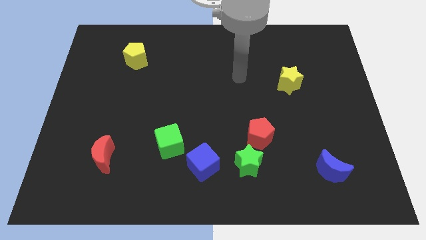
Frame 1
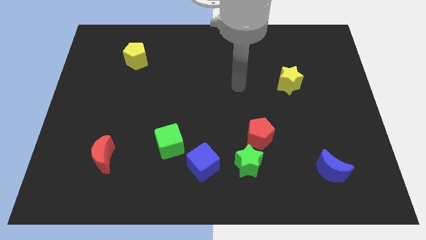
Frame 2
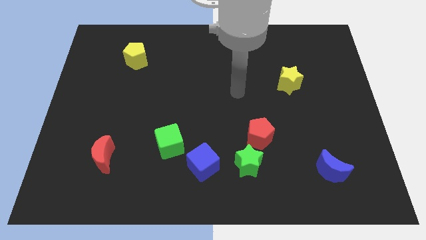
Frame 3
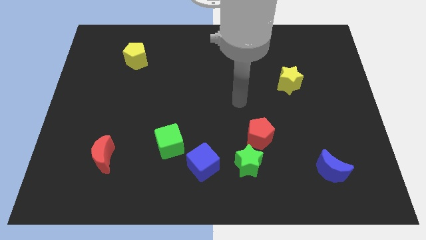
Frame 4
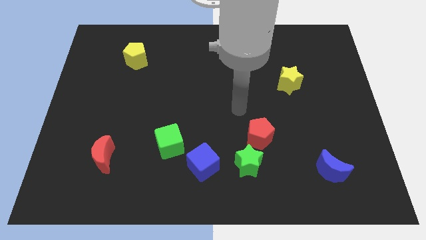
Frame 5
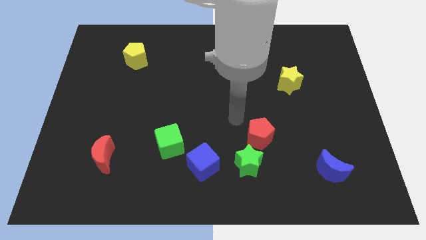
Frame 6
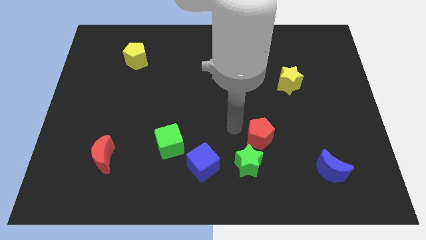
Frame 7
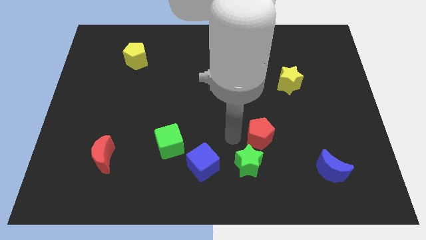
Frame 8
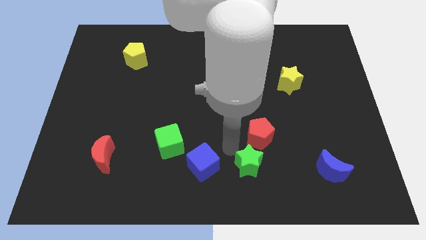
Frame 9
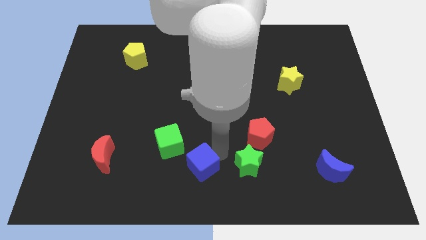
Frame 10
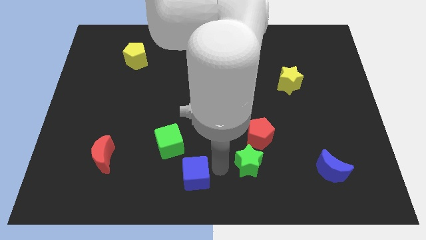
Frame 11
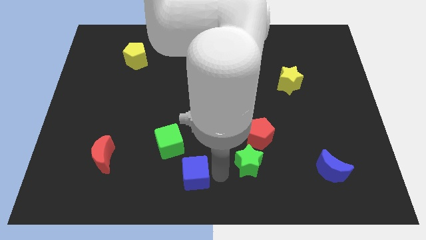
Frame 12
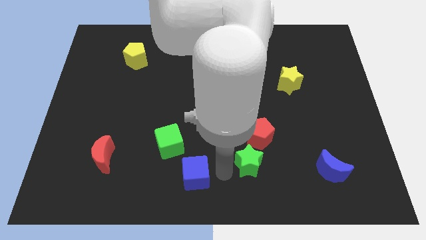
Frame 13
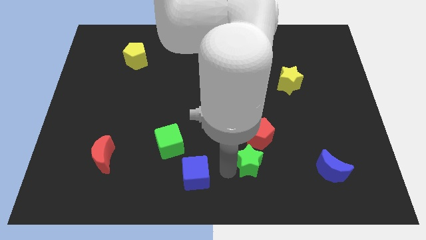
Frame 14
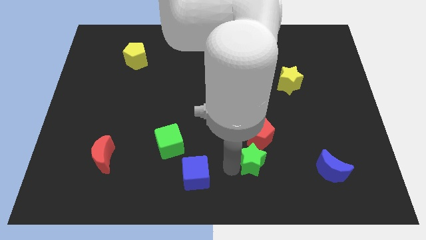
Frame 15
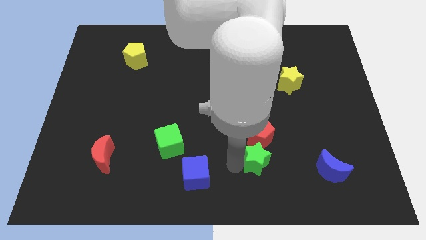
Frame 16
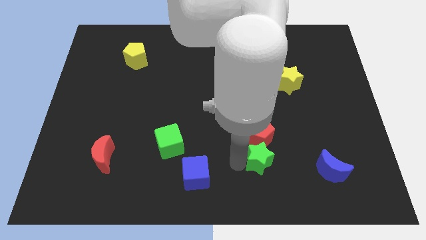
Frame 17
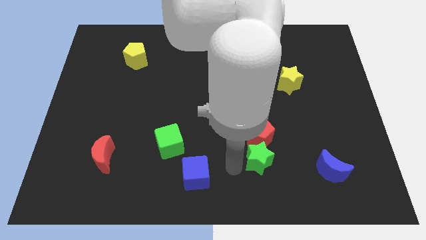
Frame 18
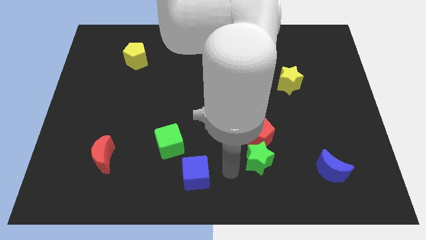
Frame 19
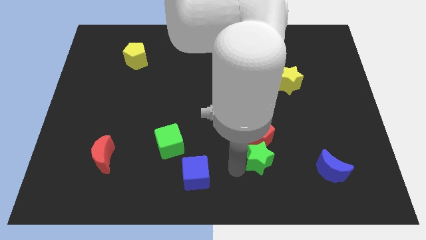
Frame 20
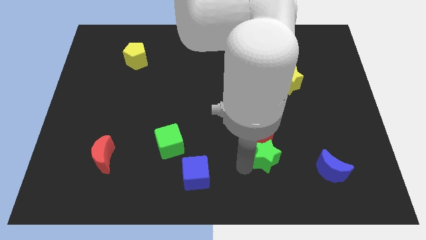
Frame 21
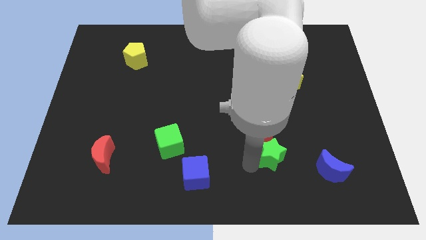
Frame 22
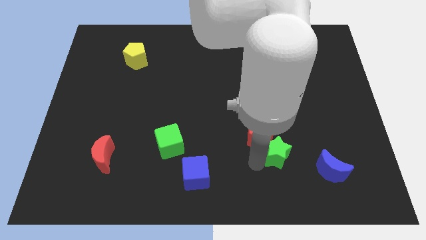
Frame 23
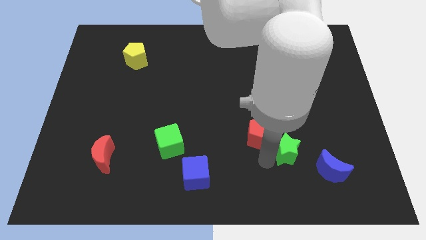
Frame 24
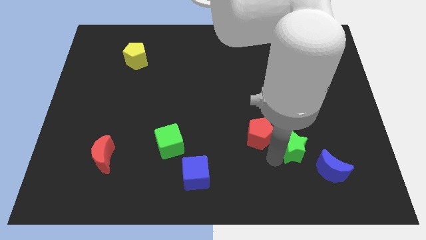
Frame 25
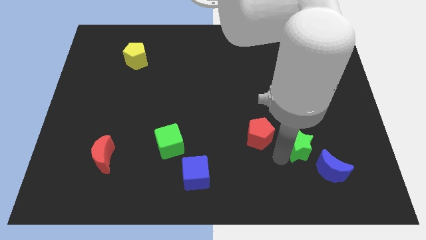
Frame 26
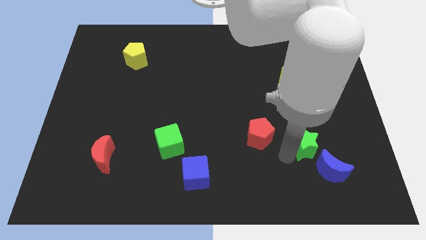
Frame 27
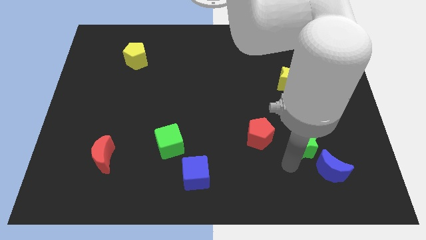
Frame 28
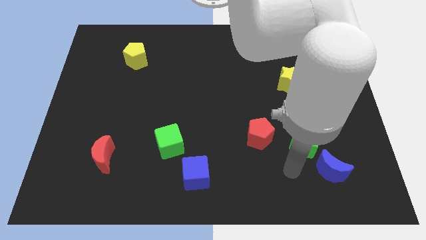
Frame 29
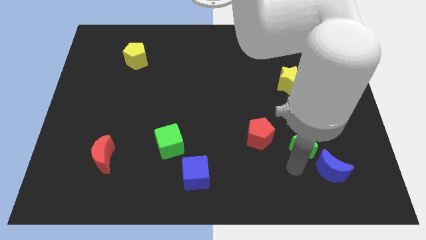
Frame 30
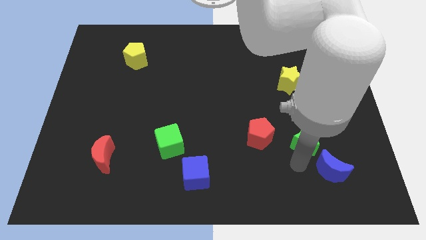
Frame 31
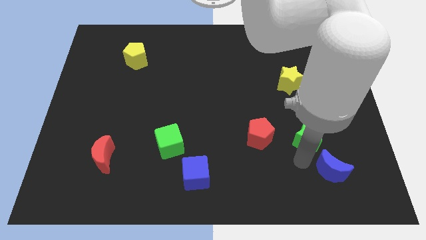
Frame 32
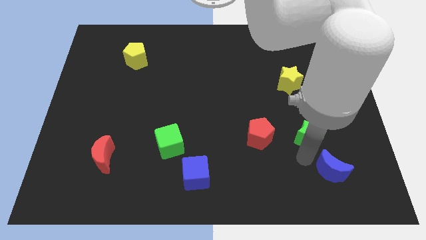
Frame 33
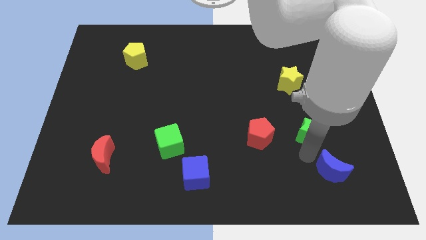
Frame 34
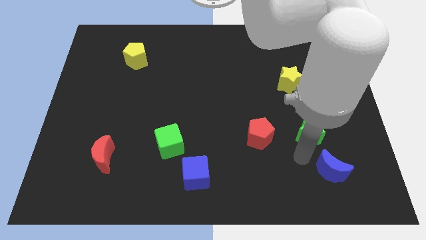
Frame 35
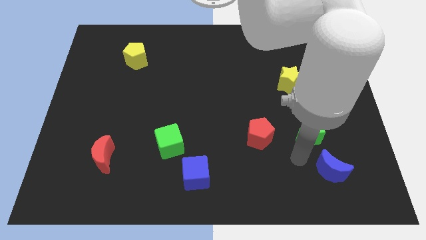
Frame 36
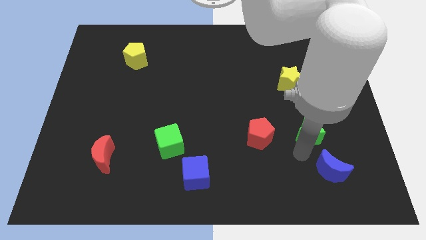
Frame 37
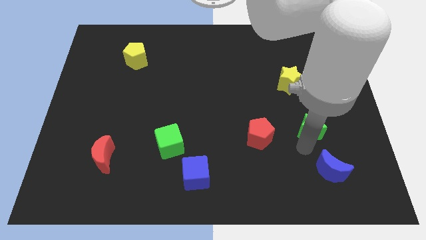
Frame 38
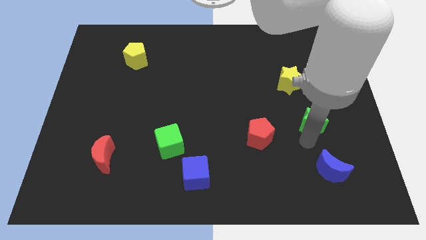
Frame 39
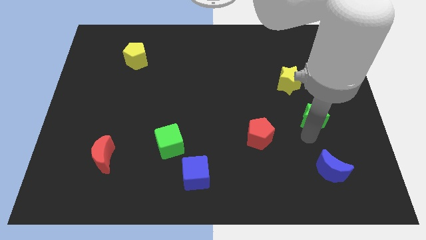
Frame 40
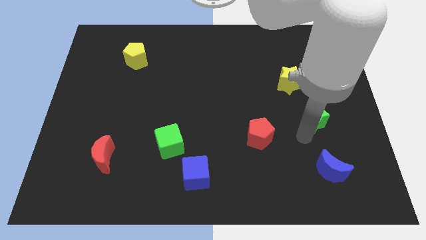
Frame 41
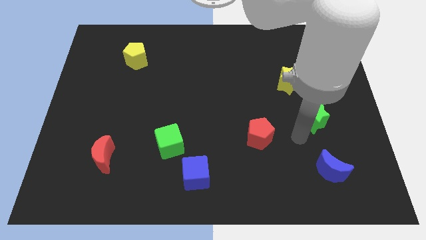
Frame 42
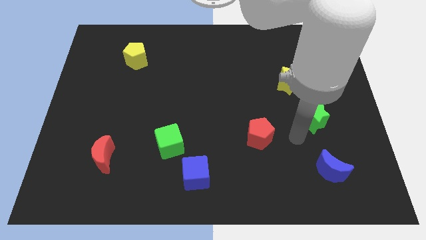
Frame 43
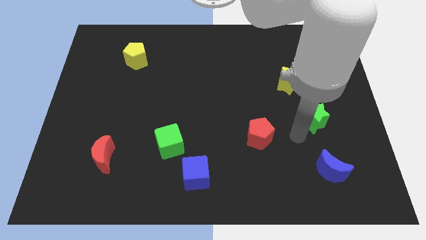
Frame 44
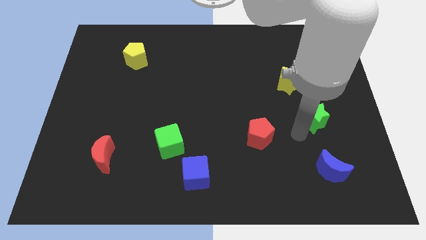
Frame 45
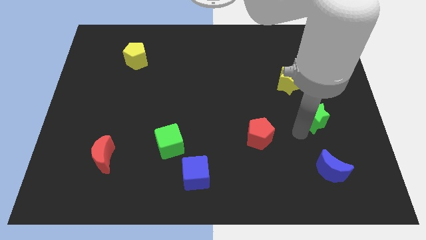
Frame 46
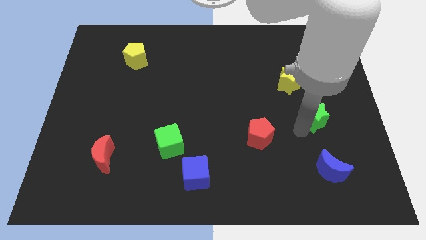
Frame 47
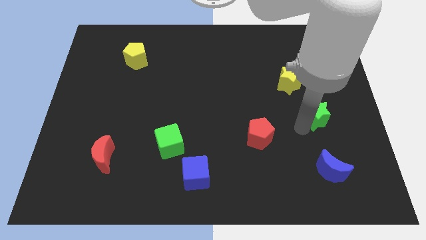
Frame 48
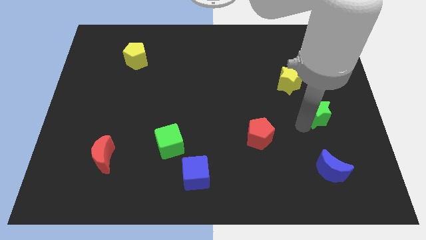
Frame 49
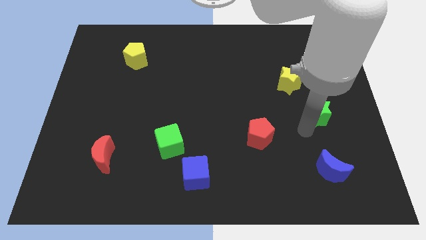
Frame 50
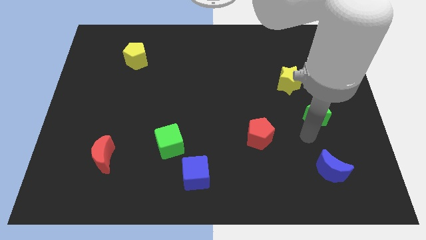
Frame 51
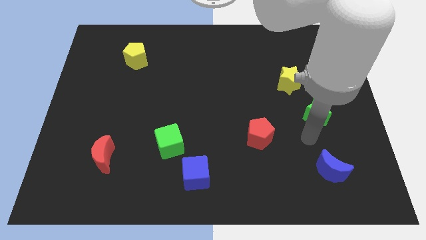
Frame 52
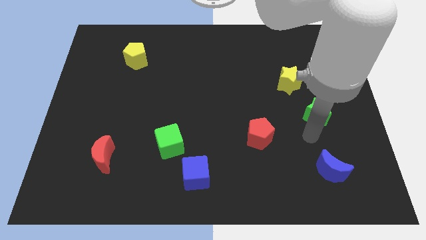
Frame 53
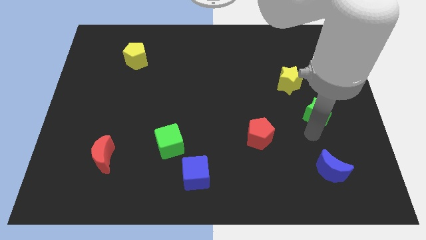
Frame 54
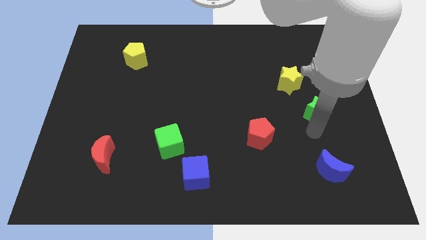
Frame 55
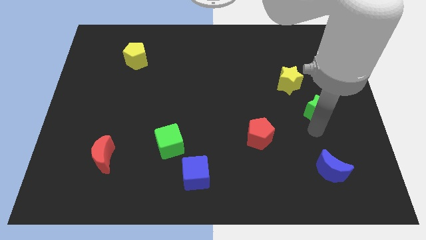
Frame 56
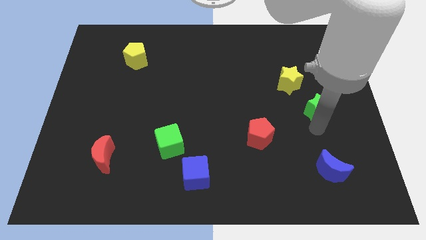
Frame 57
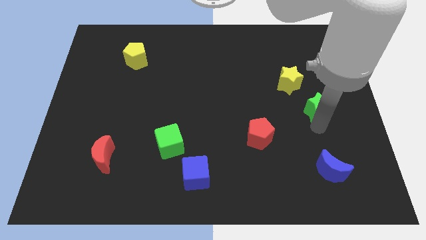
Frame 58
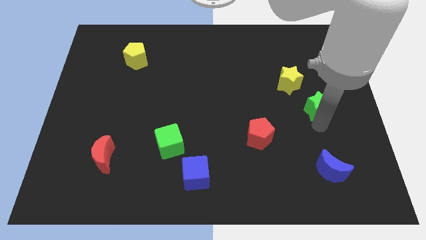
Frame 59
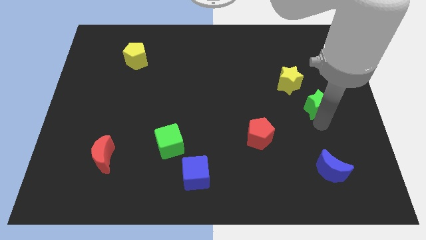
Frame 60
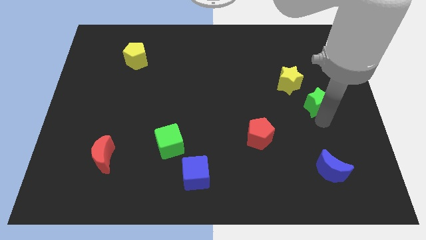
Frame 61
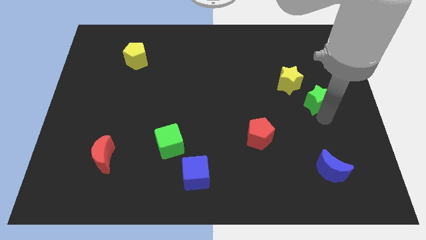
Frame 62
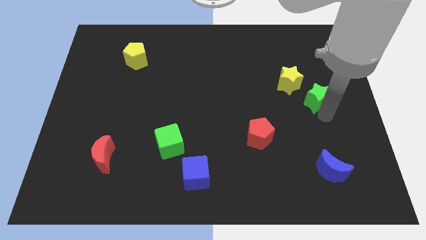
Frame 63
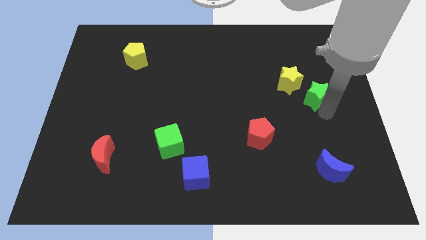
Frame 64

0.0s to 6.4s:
slide the green star right of the yellow star

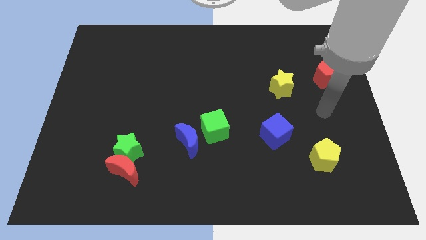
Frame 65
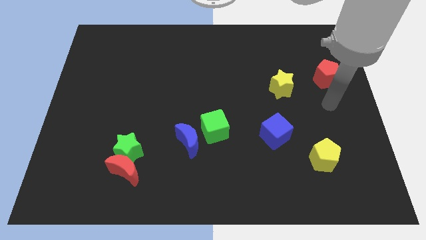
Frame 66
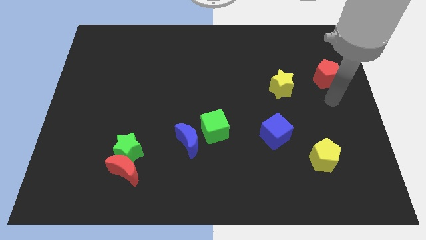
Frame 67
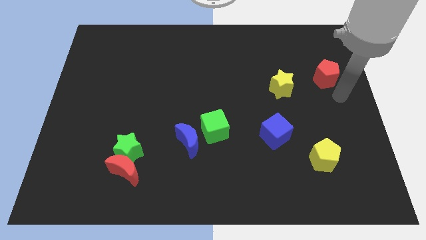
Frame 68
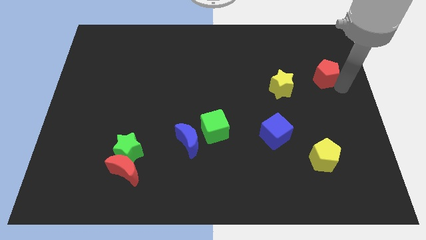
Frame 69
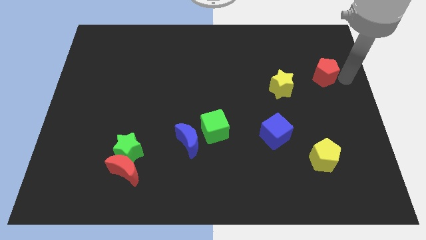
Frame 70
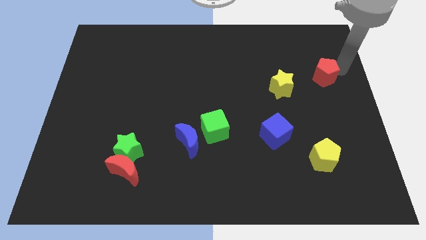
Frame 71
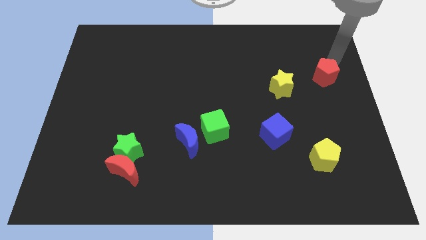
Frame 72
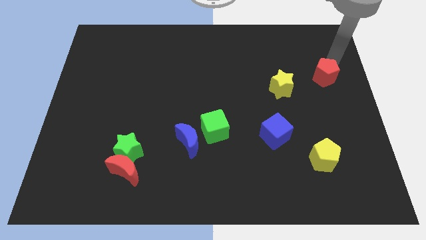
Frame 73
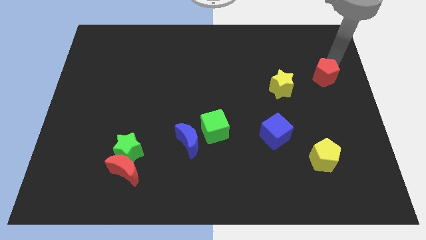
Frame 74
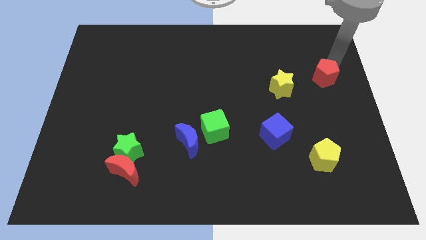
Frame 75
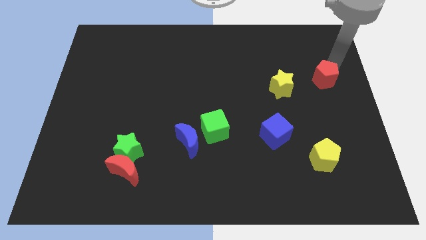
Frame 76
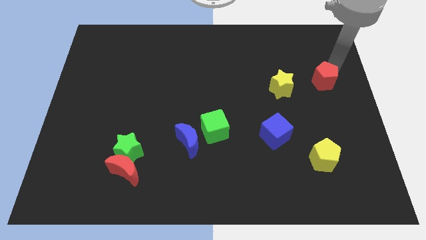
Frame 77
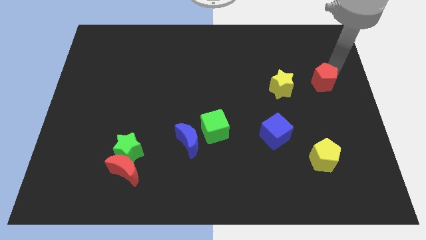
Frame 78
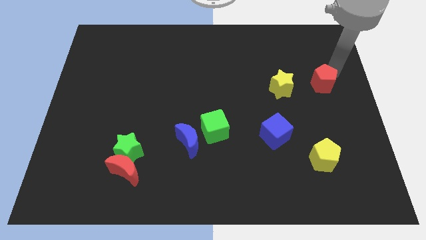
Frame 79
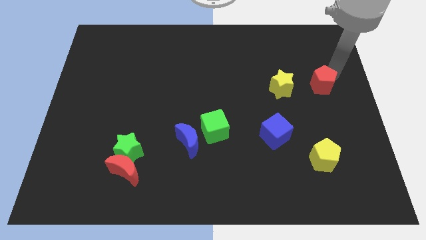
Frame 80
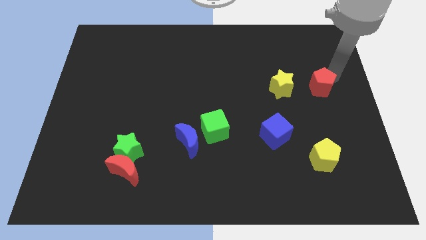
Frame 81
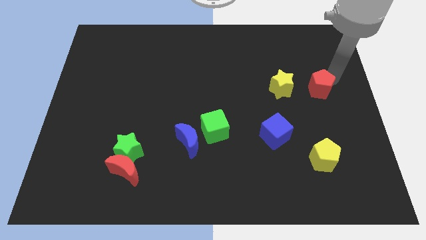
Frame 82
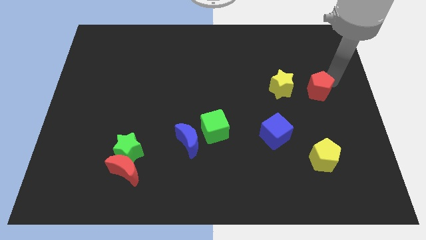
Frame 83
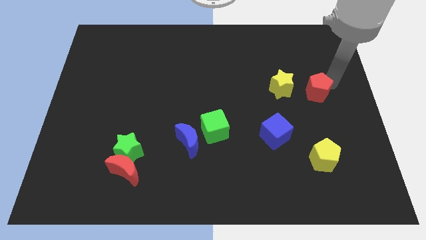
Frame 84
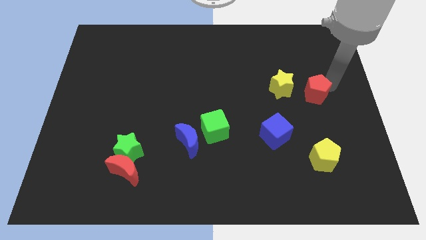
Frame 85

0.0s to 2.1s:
slide the red pentagon diagonally down and to the right of the yellow star
